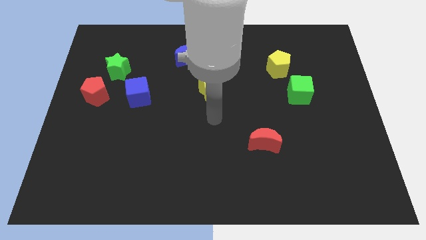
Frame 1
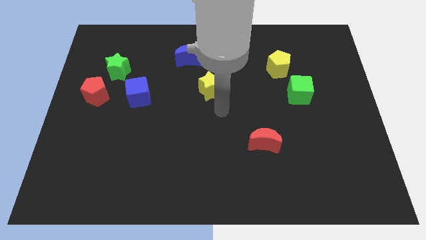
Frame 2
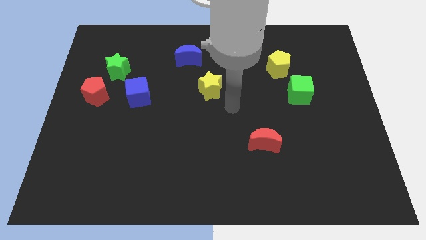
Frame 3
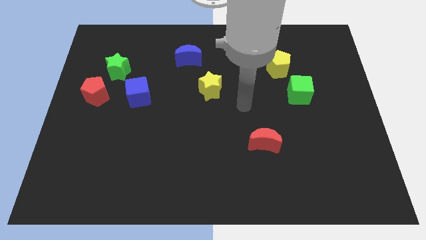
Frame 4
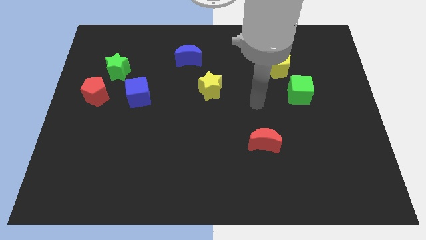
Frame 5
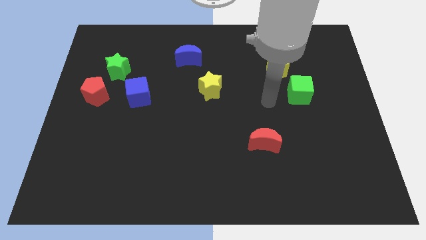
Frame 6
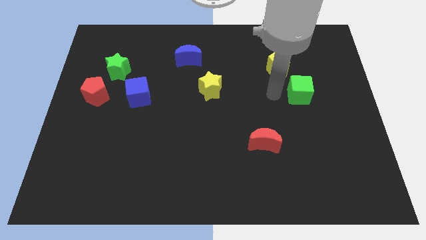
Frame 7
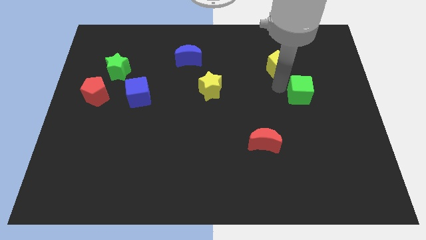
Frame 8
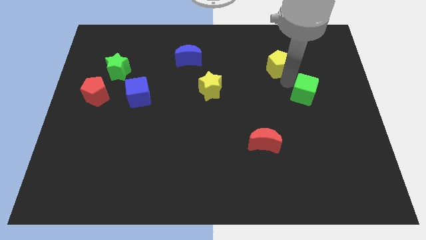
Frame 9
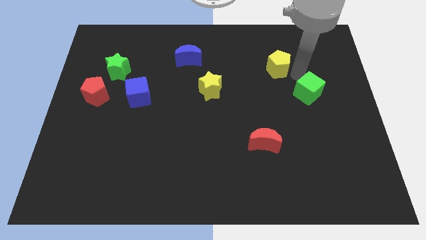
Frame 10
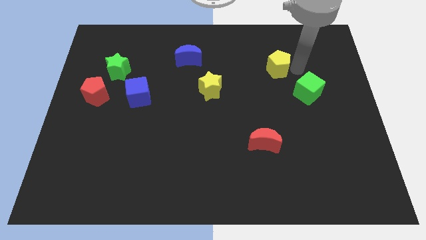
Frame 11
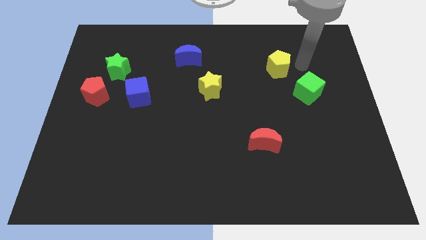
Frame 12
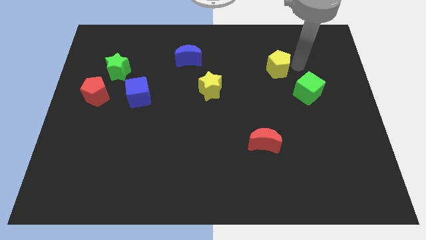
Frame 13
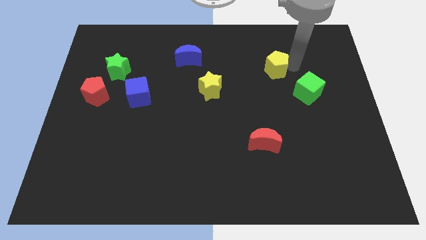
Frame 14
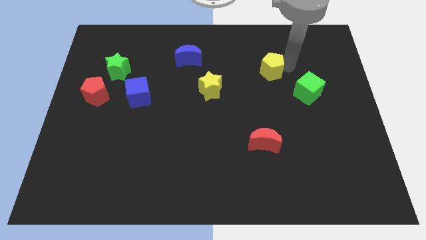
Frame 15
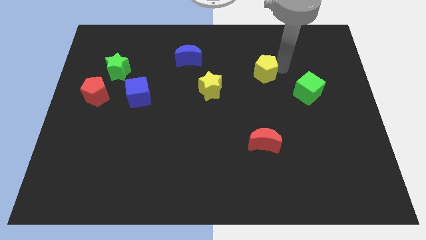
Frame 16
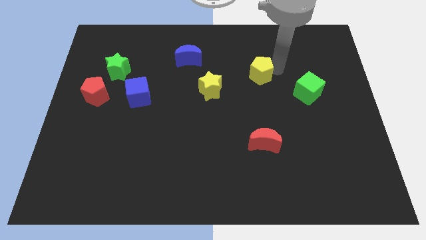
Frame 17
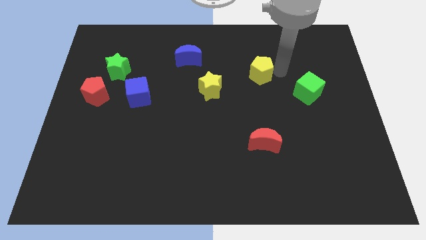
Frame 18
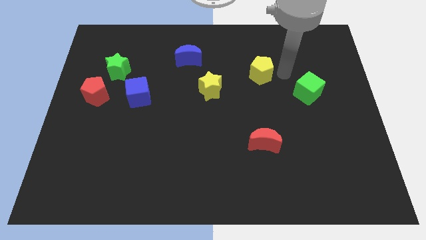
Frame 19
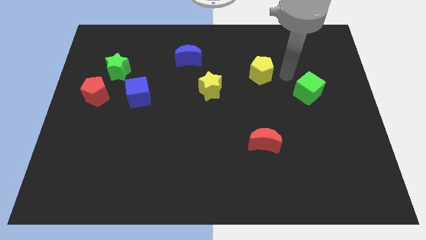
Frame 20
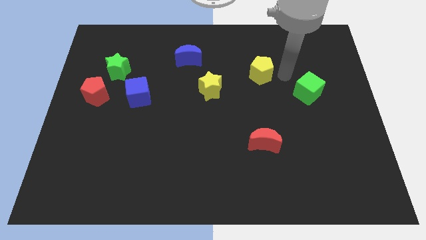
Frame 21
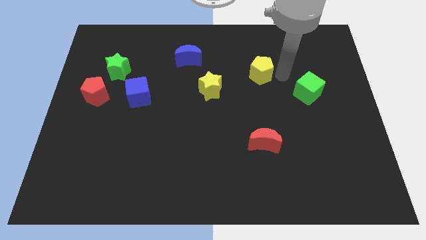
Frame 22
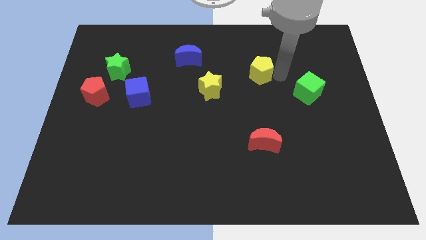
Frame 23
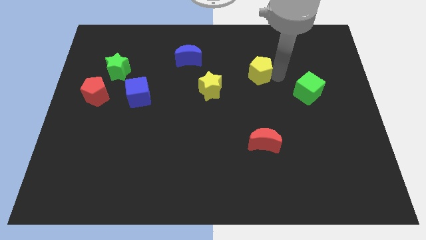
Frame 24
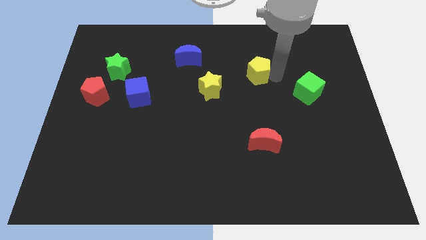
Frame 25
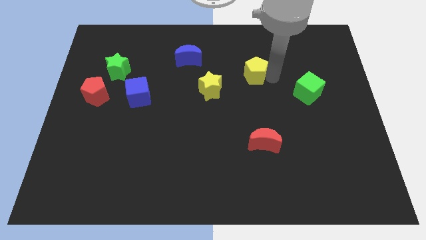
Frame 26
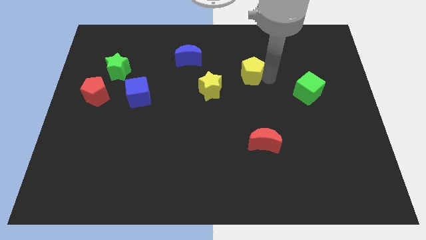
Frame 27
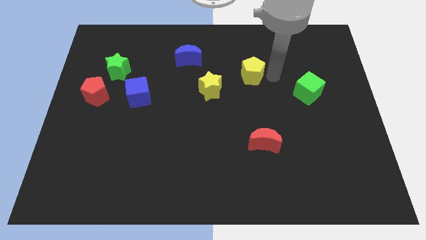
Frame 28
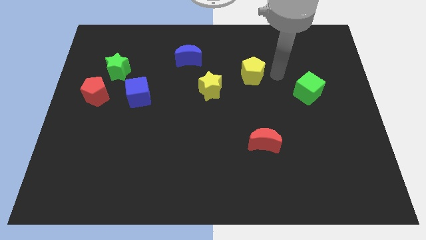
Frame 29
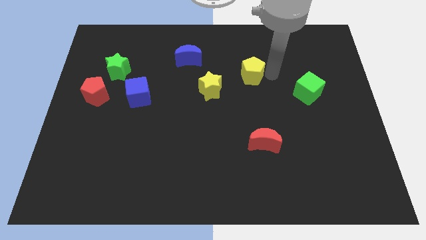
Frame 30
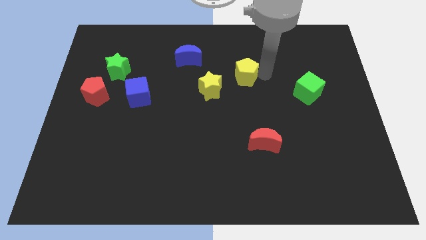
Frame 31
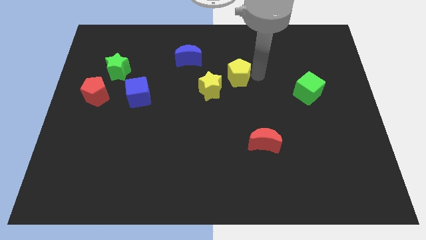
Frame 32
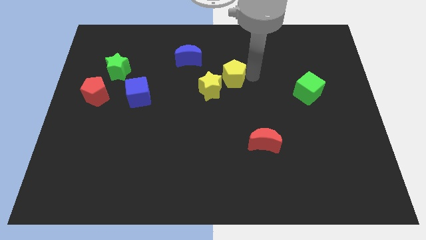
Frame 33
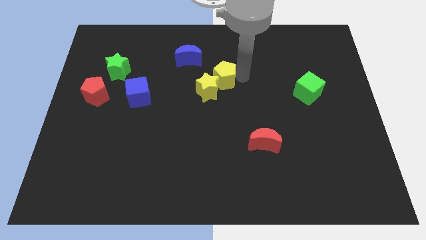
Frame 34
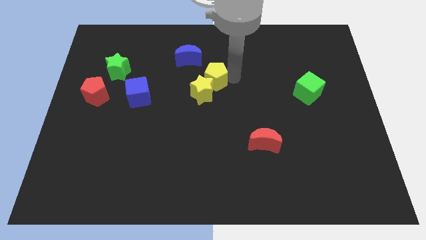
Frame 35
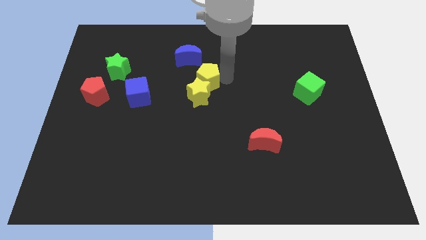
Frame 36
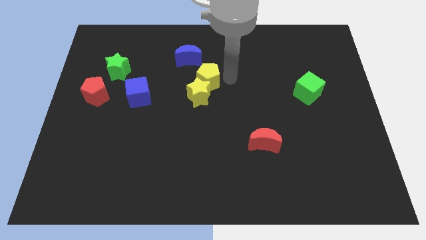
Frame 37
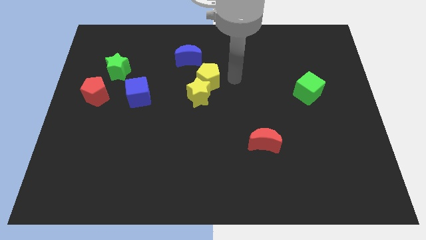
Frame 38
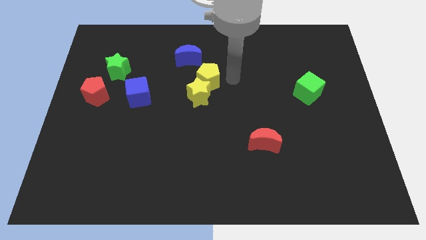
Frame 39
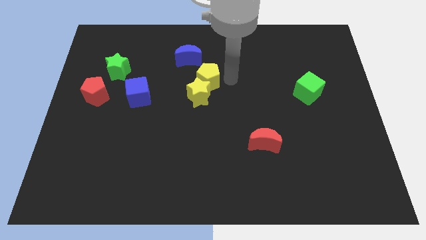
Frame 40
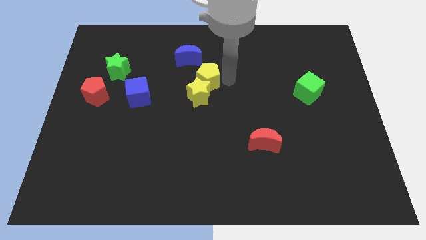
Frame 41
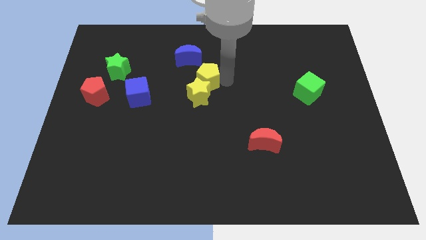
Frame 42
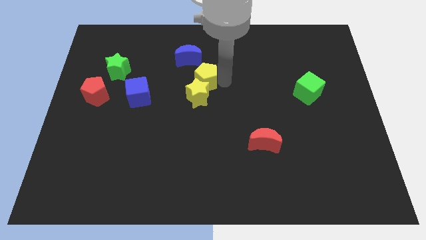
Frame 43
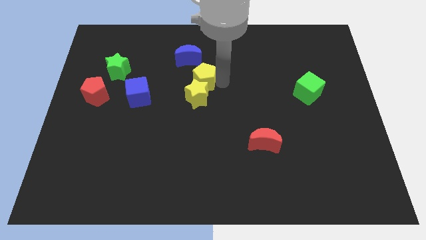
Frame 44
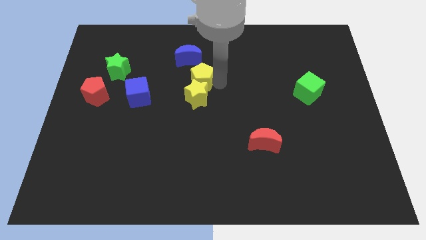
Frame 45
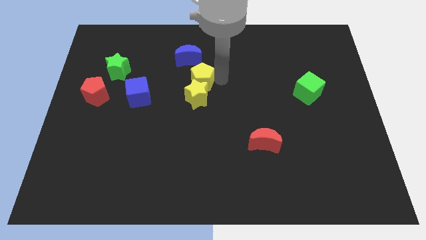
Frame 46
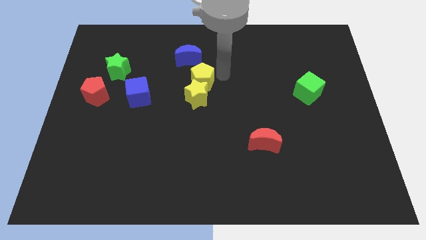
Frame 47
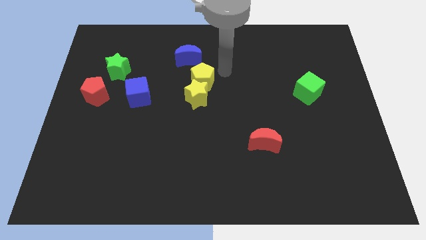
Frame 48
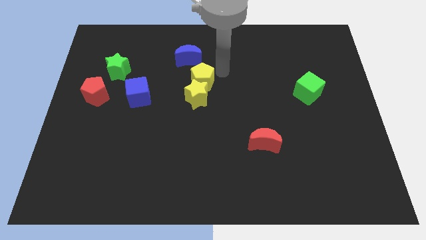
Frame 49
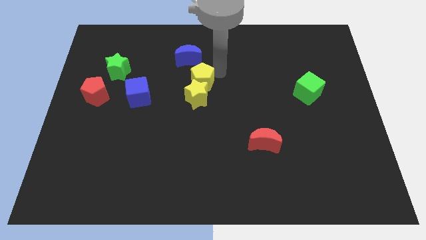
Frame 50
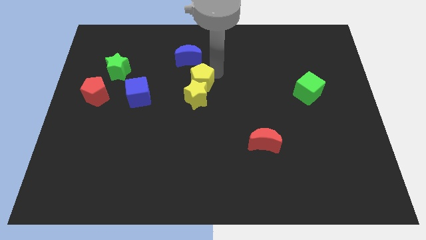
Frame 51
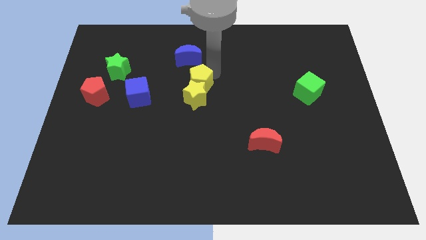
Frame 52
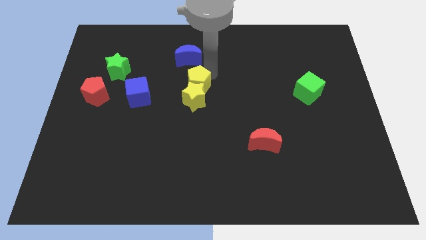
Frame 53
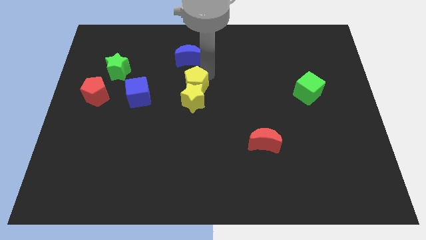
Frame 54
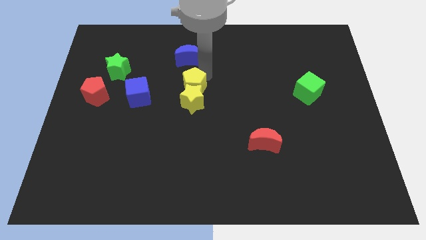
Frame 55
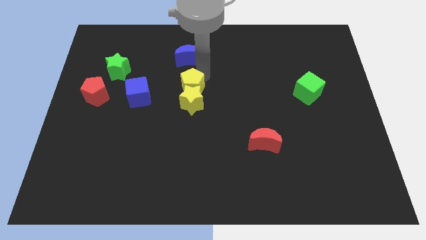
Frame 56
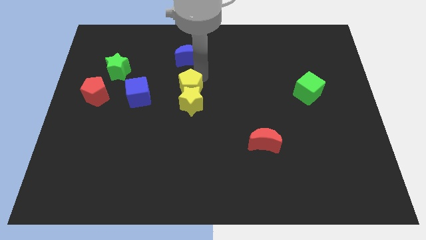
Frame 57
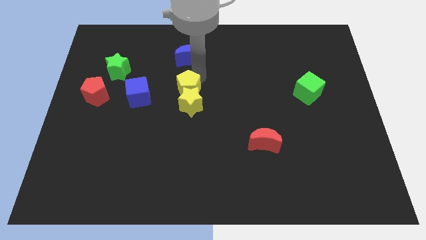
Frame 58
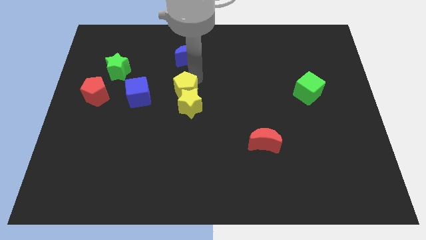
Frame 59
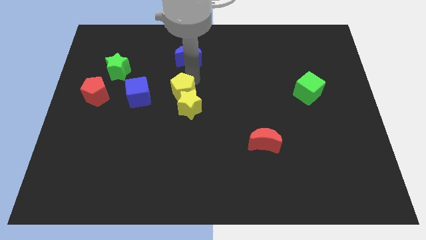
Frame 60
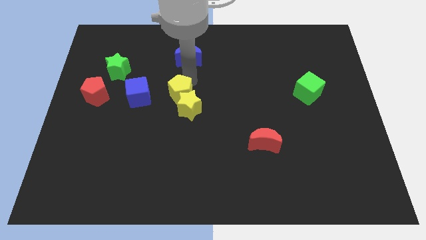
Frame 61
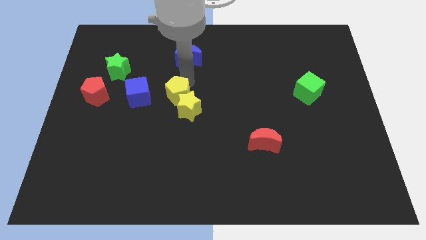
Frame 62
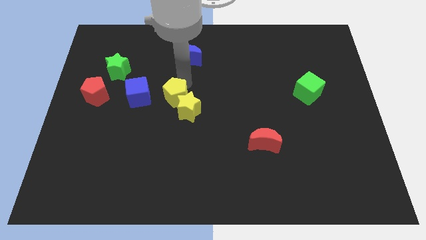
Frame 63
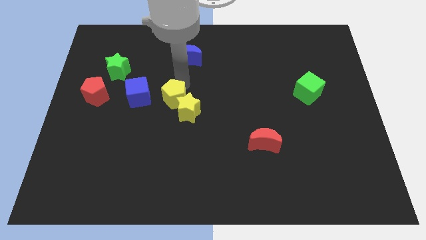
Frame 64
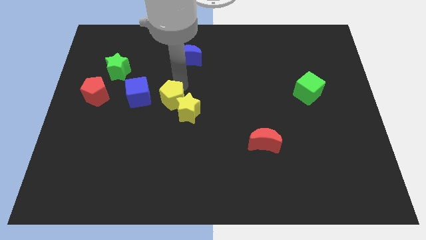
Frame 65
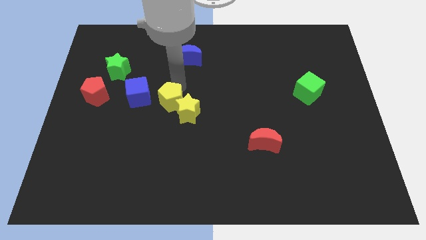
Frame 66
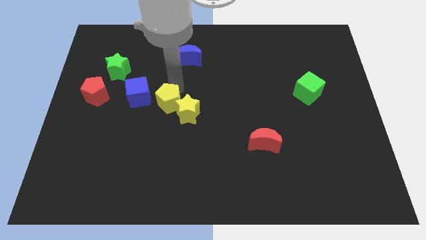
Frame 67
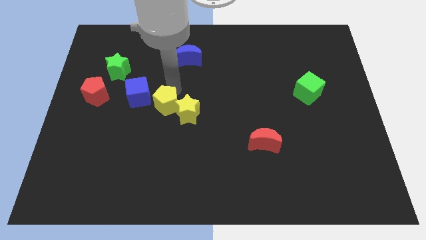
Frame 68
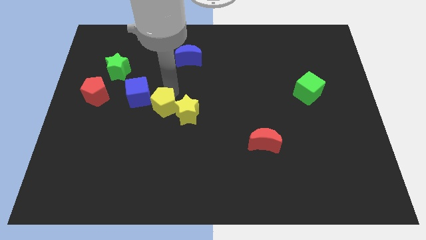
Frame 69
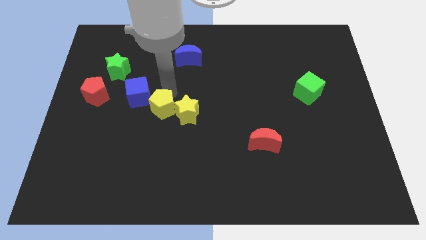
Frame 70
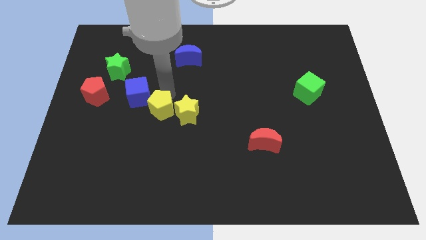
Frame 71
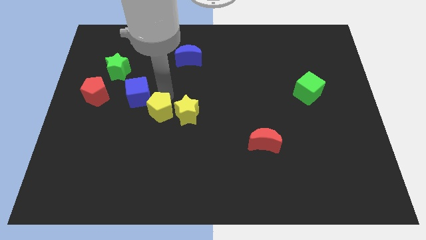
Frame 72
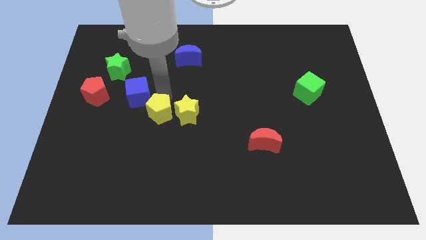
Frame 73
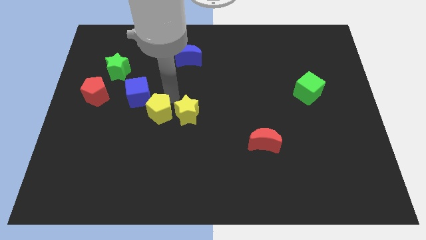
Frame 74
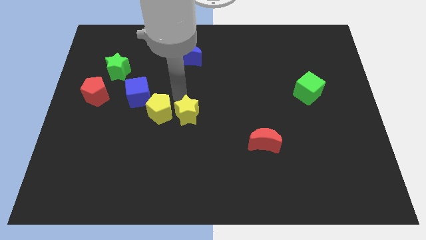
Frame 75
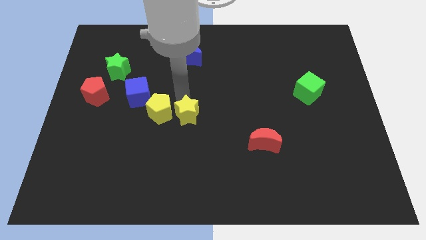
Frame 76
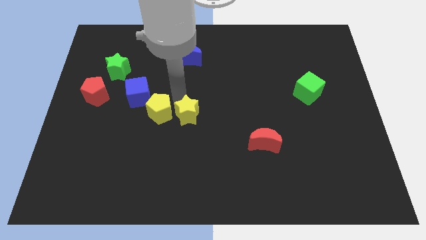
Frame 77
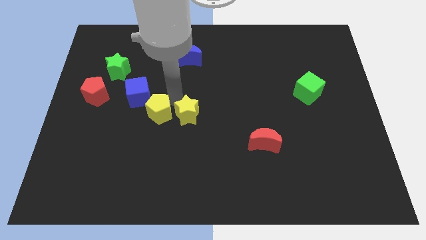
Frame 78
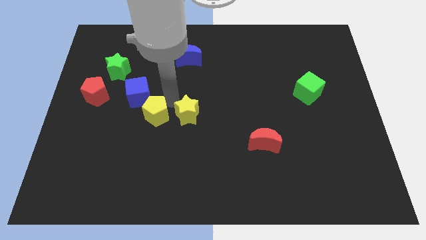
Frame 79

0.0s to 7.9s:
put the yellow pentagon to the bottom of the blue cube
